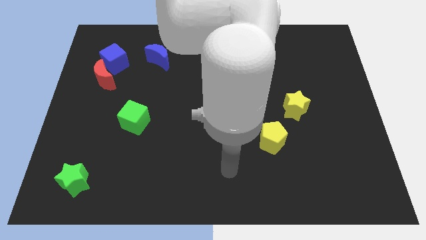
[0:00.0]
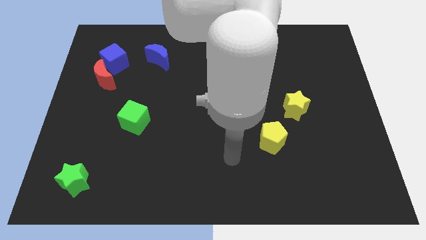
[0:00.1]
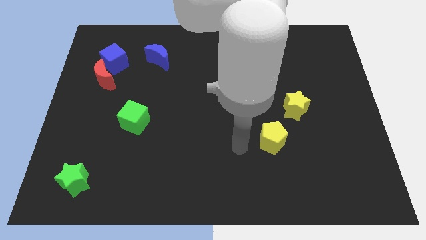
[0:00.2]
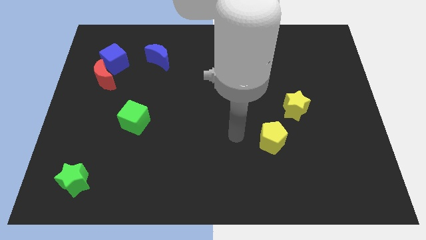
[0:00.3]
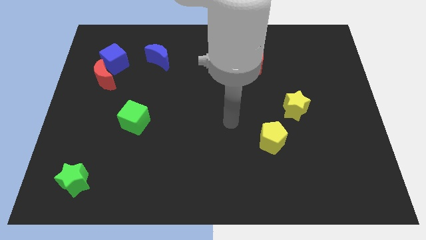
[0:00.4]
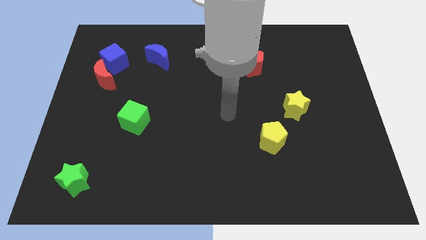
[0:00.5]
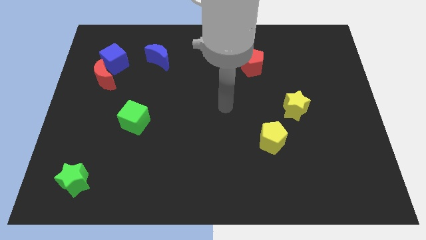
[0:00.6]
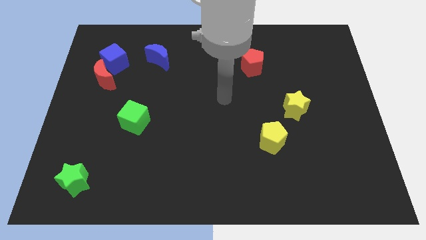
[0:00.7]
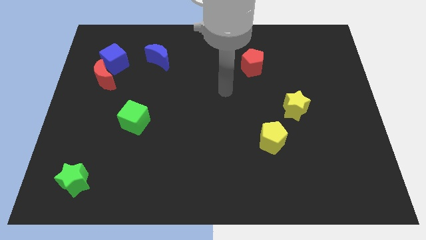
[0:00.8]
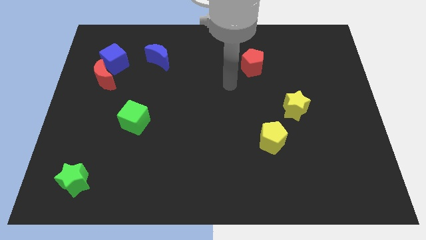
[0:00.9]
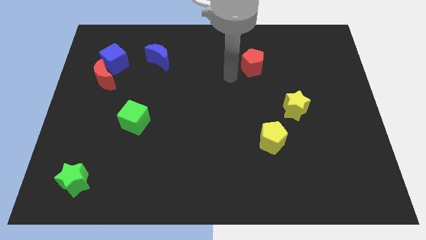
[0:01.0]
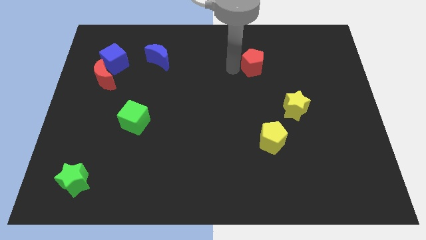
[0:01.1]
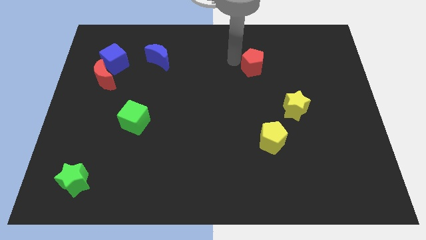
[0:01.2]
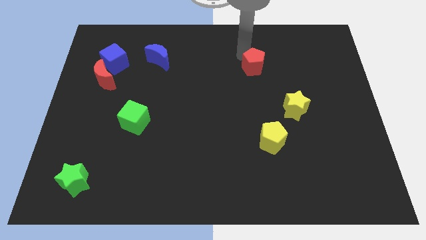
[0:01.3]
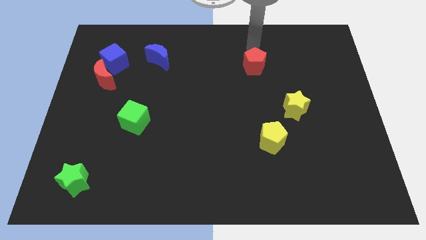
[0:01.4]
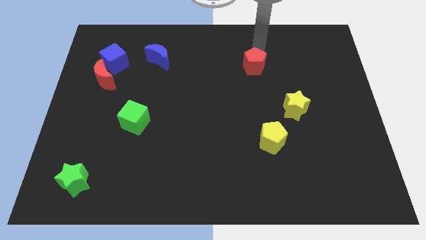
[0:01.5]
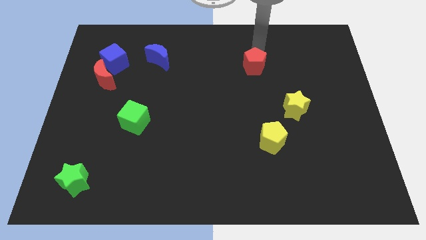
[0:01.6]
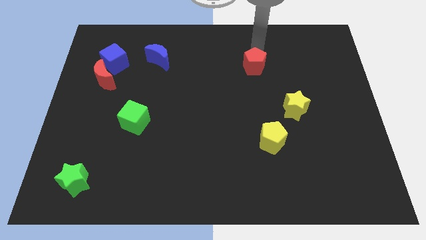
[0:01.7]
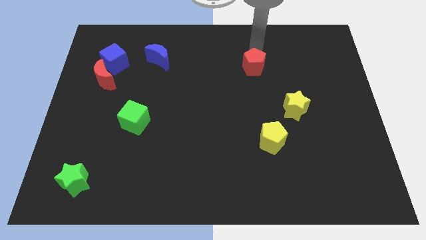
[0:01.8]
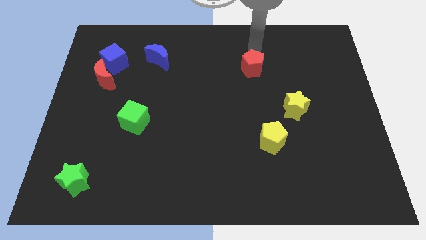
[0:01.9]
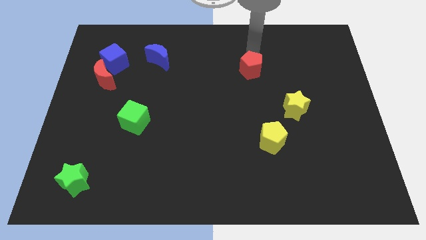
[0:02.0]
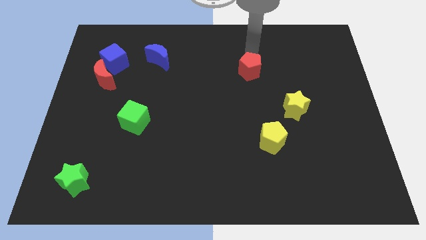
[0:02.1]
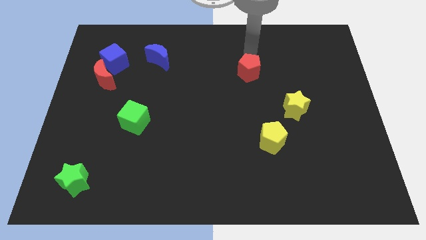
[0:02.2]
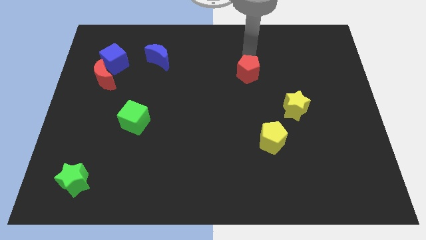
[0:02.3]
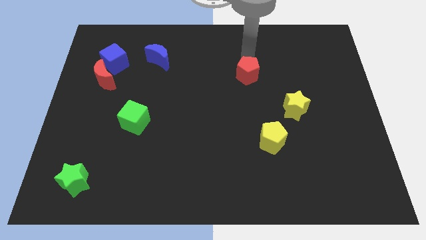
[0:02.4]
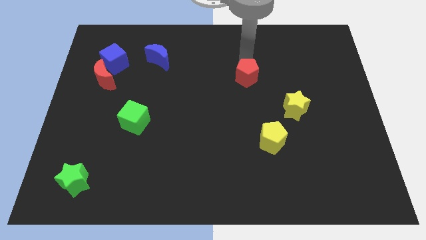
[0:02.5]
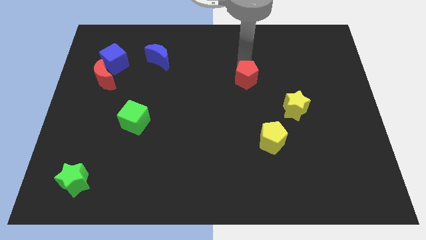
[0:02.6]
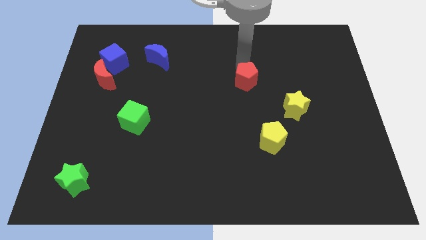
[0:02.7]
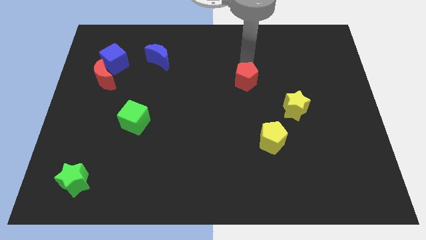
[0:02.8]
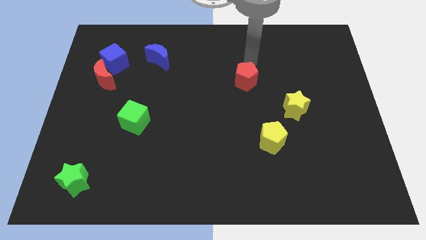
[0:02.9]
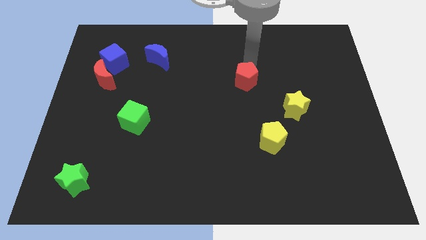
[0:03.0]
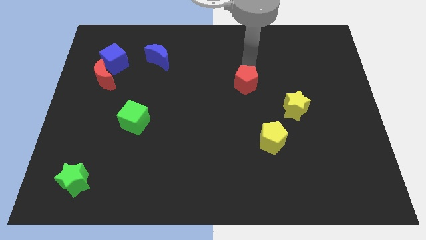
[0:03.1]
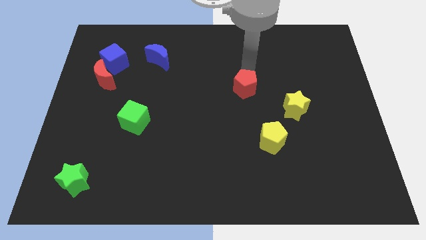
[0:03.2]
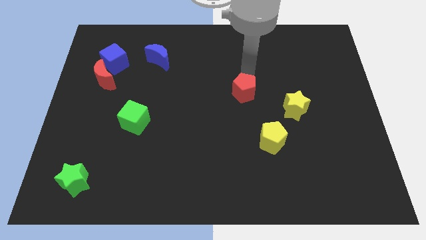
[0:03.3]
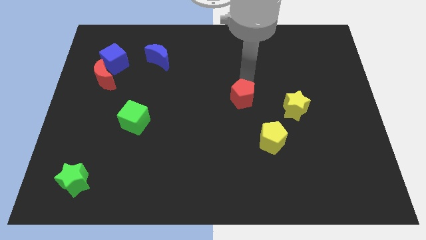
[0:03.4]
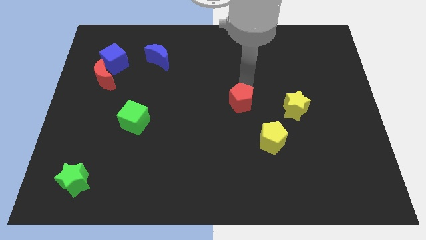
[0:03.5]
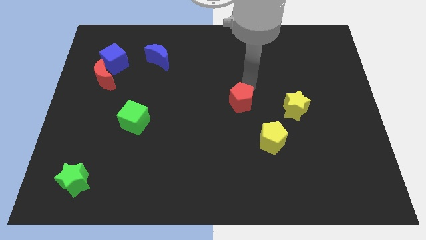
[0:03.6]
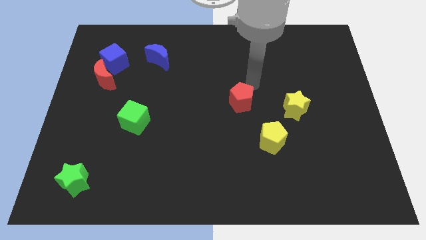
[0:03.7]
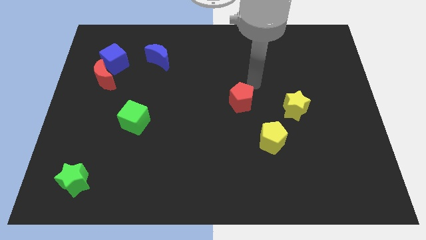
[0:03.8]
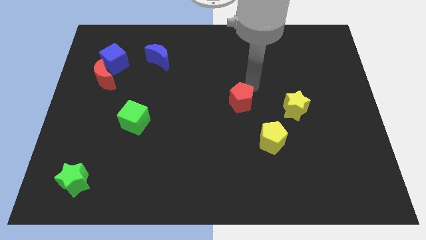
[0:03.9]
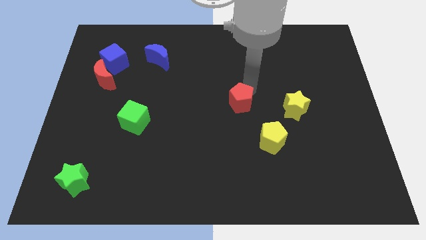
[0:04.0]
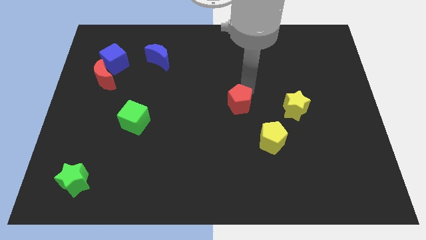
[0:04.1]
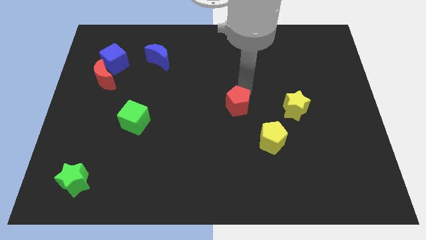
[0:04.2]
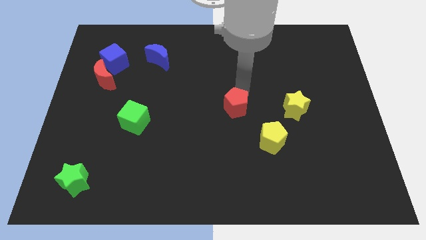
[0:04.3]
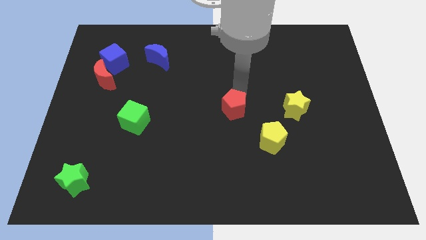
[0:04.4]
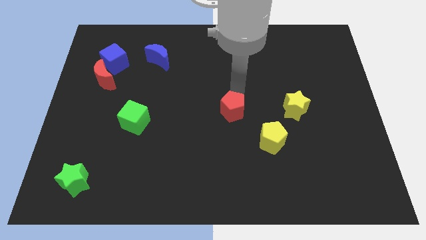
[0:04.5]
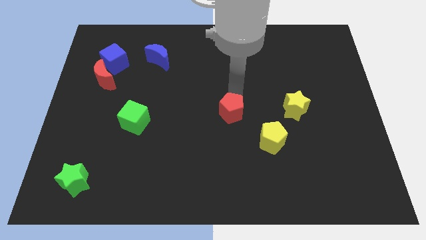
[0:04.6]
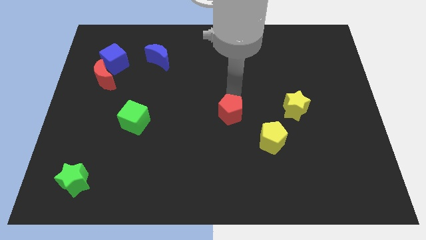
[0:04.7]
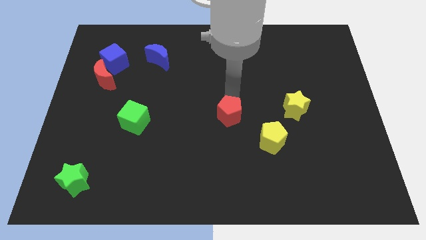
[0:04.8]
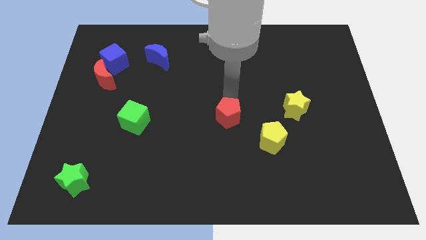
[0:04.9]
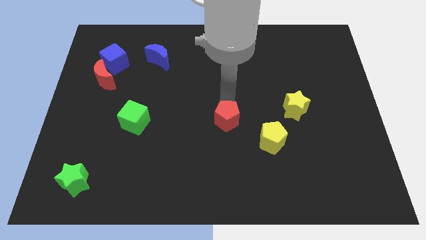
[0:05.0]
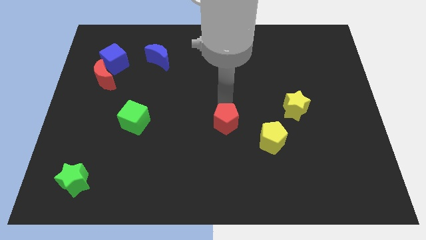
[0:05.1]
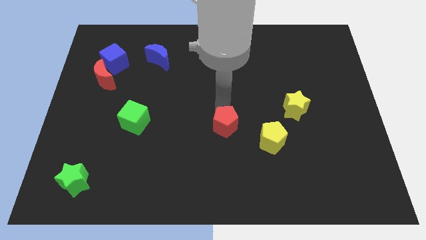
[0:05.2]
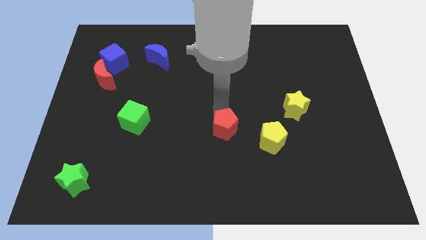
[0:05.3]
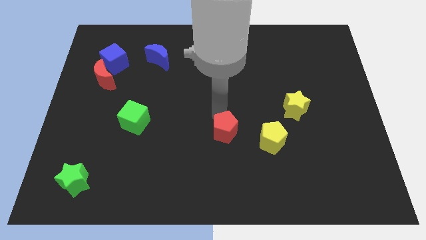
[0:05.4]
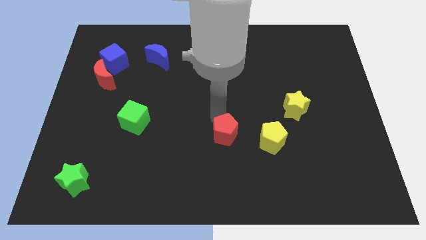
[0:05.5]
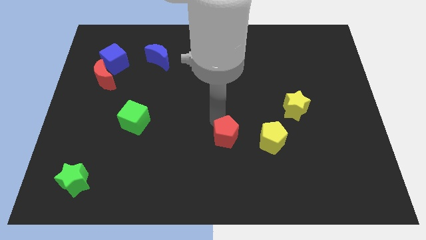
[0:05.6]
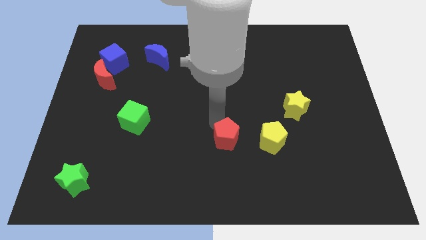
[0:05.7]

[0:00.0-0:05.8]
slide the red pentagon downwards

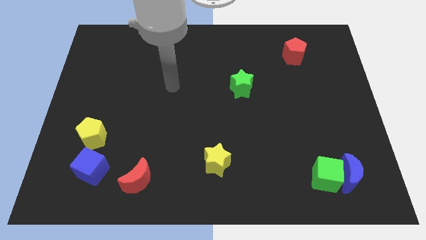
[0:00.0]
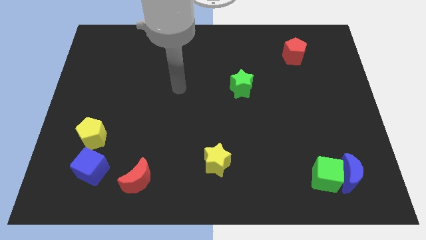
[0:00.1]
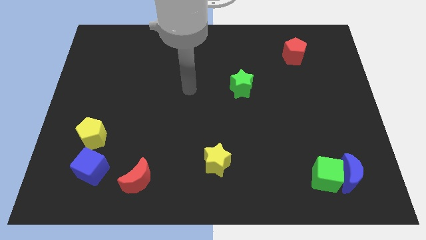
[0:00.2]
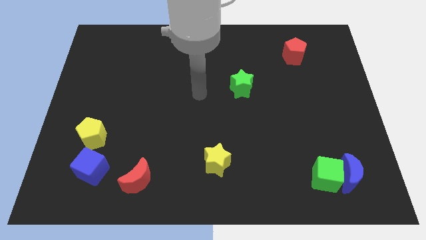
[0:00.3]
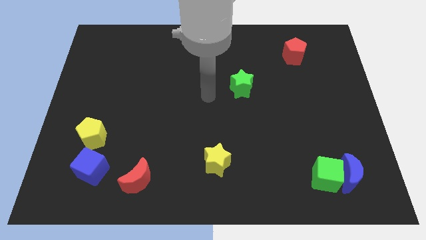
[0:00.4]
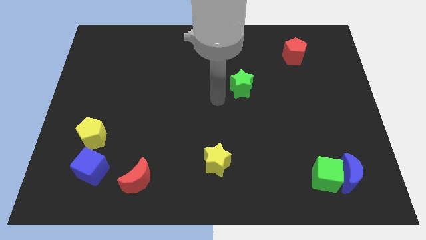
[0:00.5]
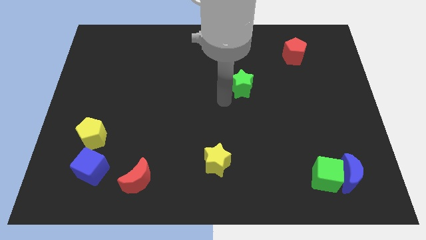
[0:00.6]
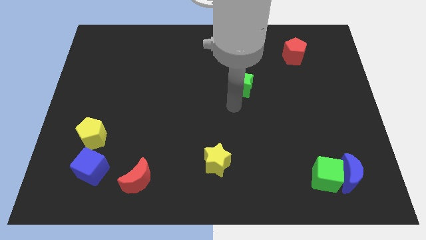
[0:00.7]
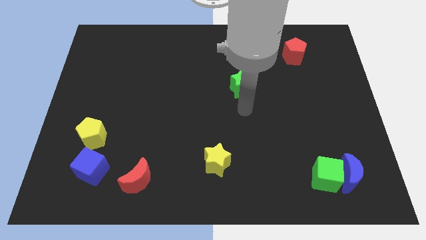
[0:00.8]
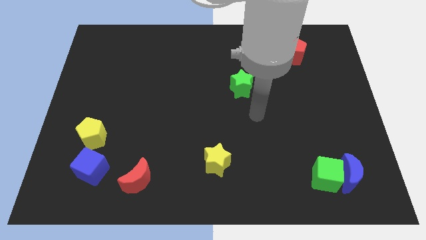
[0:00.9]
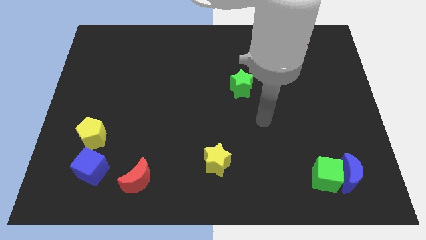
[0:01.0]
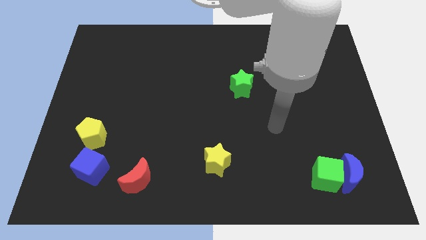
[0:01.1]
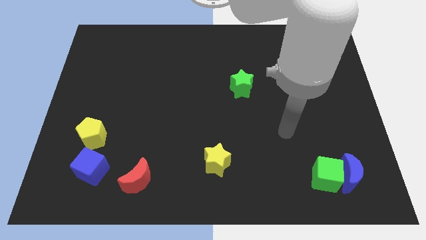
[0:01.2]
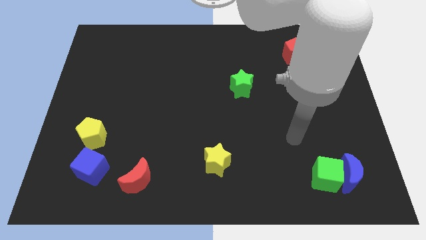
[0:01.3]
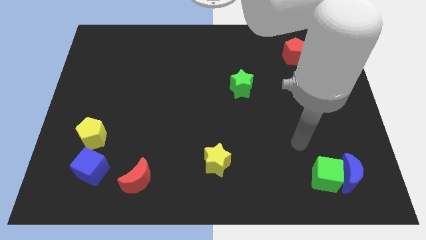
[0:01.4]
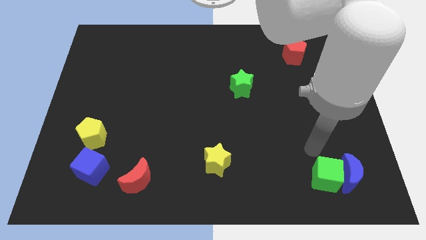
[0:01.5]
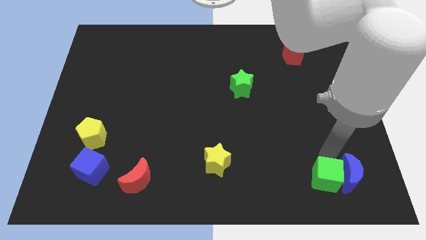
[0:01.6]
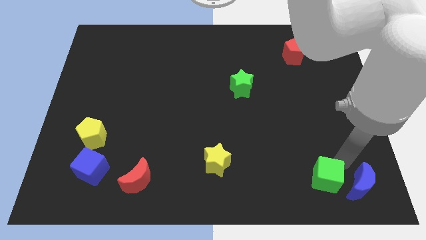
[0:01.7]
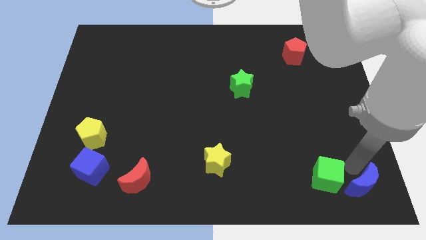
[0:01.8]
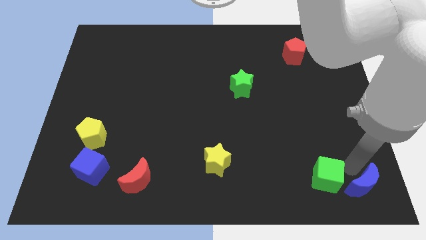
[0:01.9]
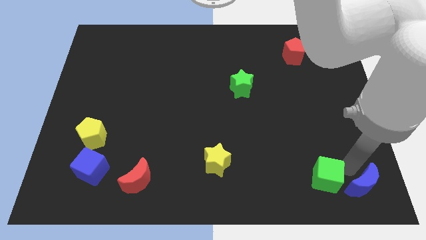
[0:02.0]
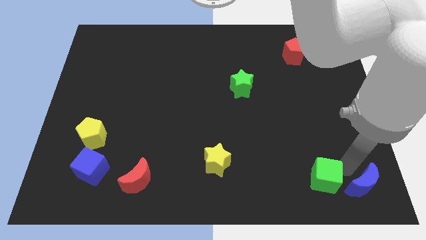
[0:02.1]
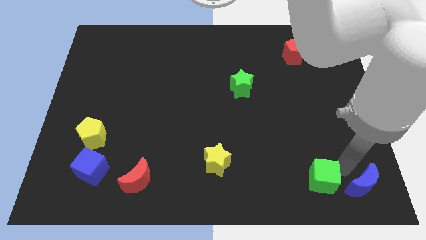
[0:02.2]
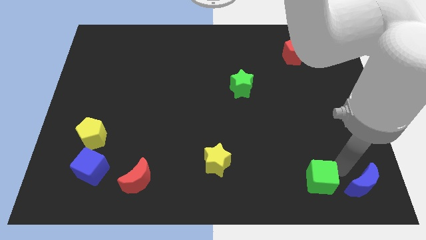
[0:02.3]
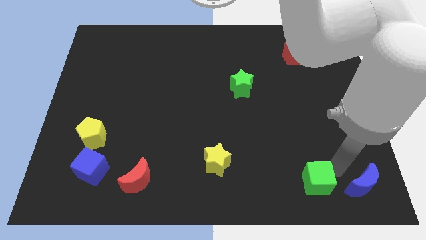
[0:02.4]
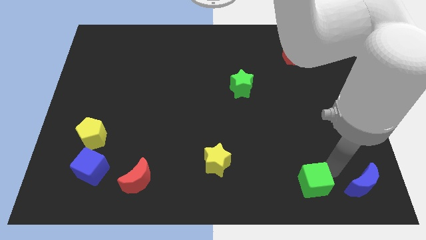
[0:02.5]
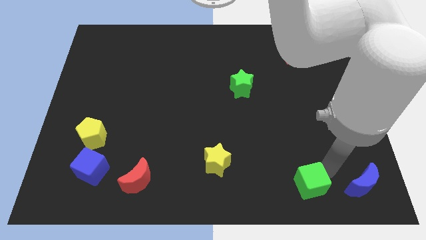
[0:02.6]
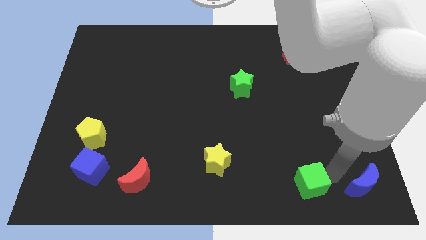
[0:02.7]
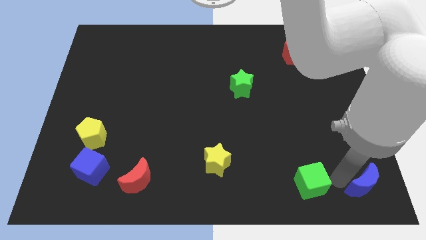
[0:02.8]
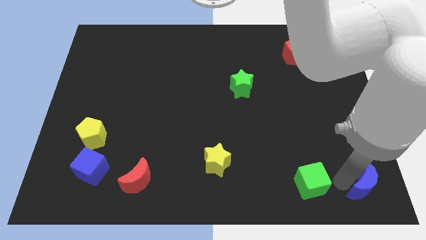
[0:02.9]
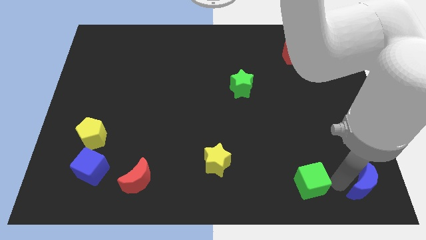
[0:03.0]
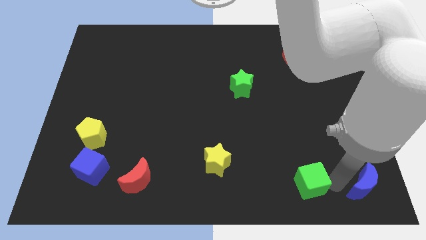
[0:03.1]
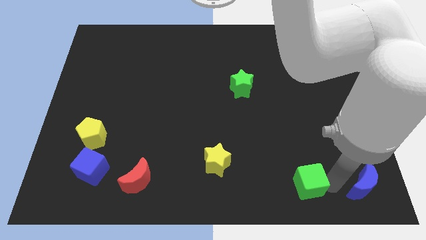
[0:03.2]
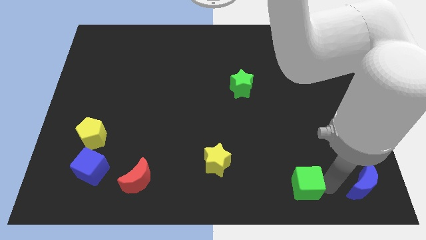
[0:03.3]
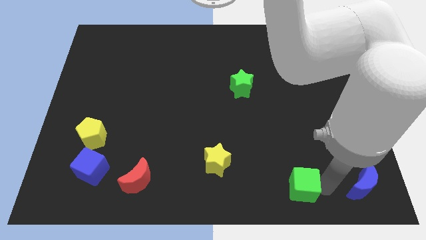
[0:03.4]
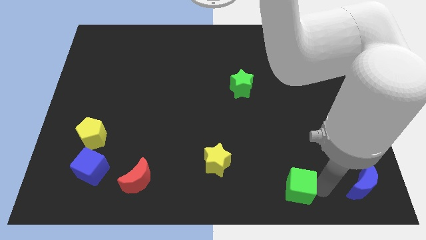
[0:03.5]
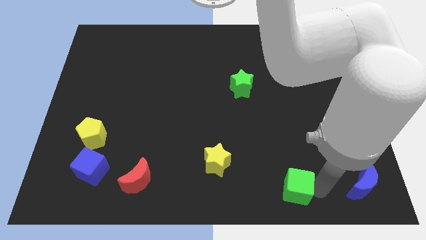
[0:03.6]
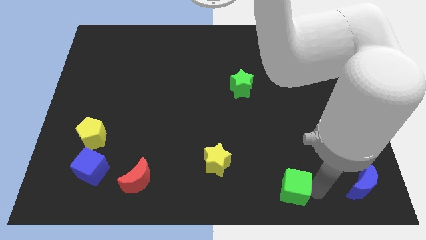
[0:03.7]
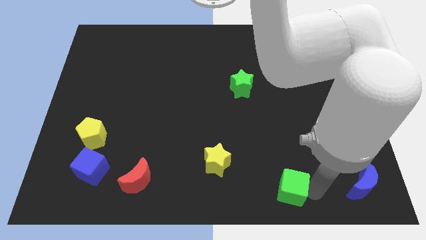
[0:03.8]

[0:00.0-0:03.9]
slightly move the green cube left
